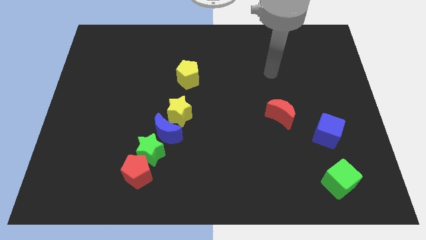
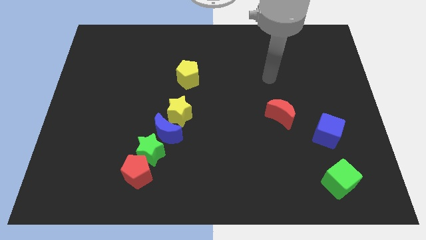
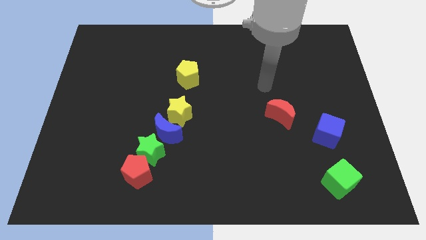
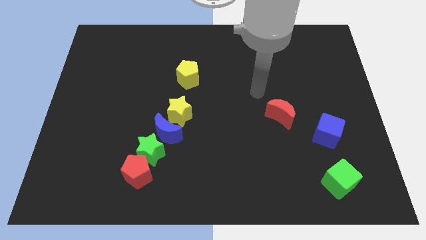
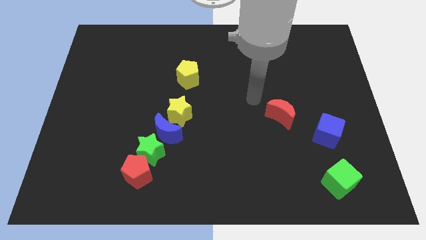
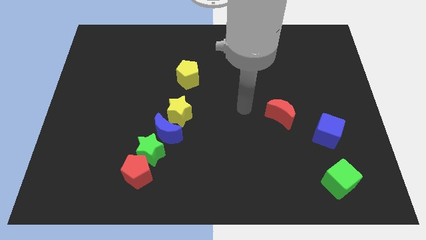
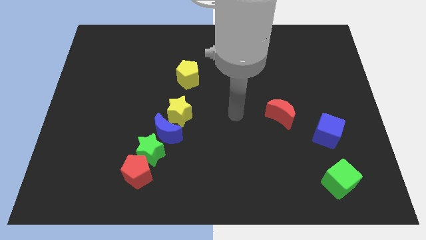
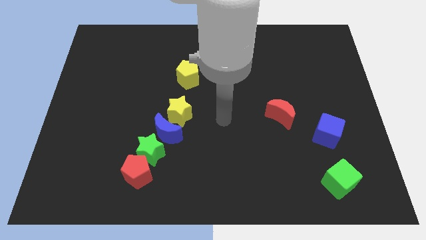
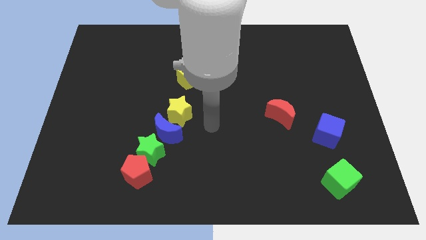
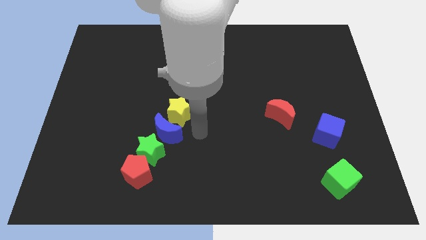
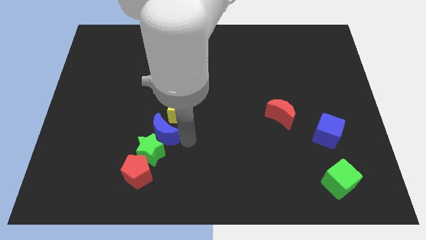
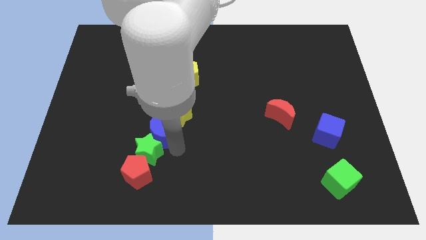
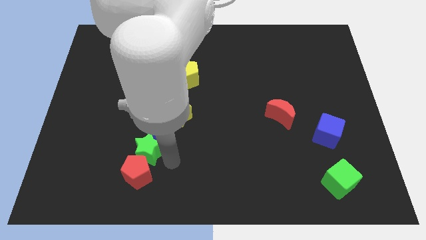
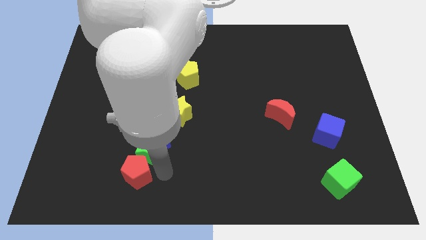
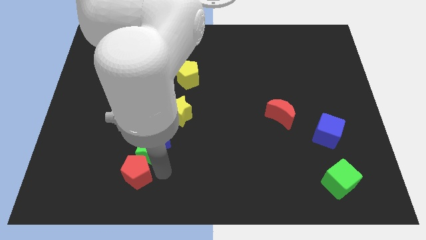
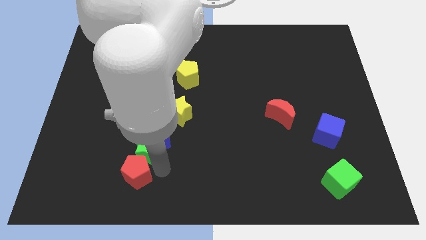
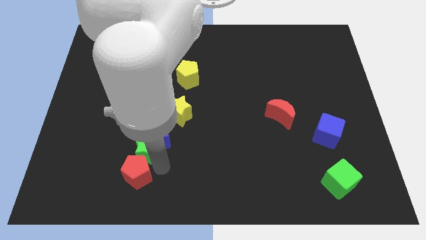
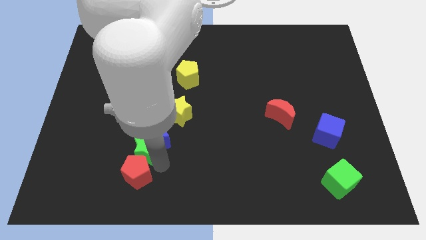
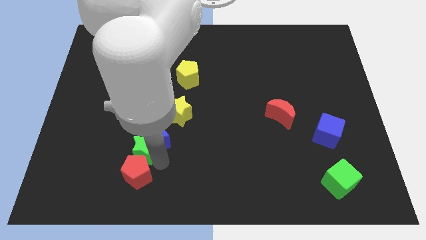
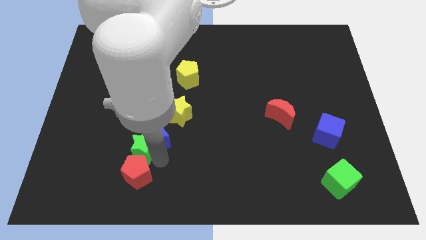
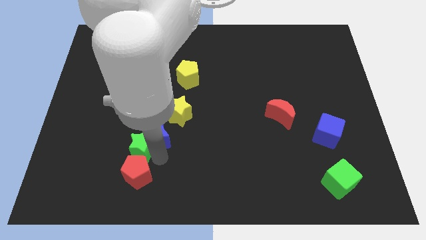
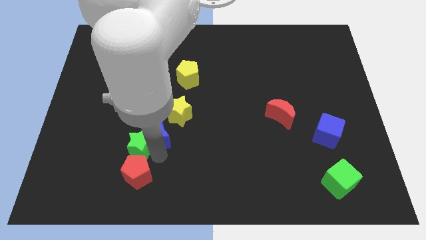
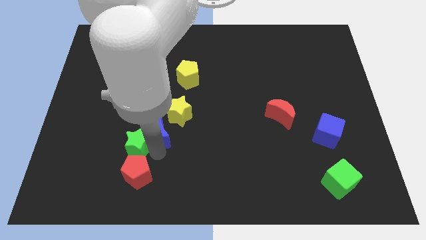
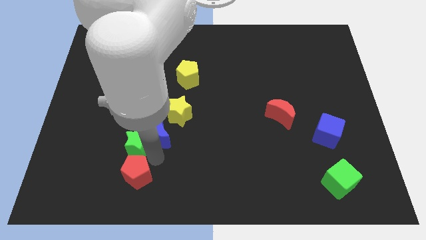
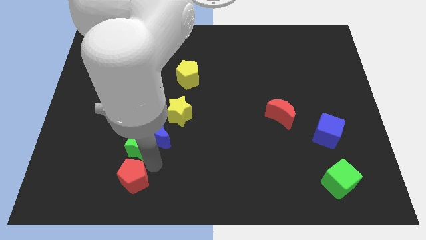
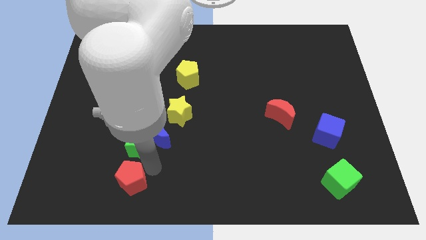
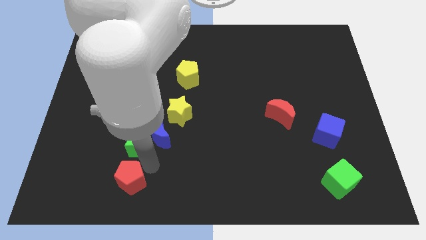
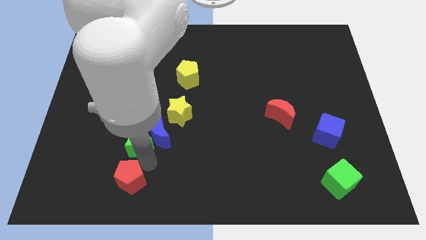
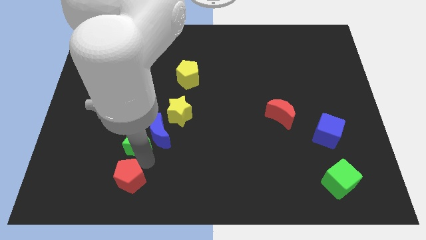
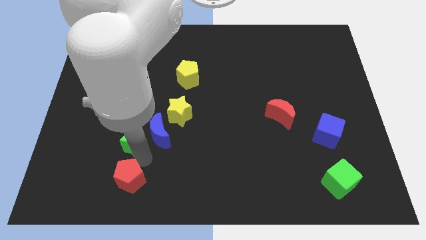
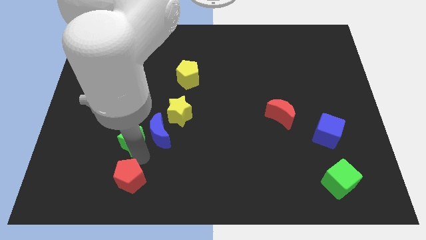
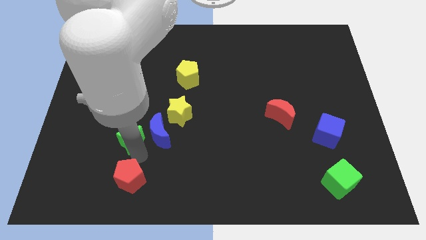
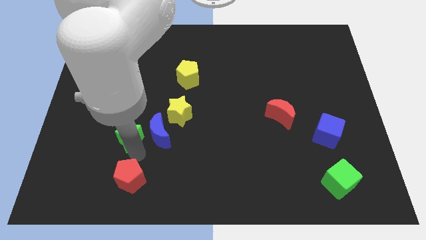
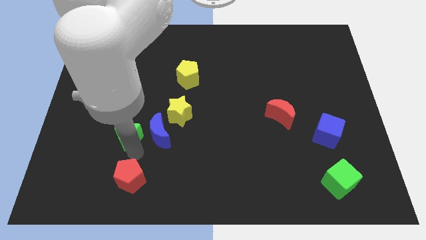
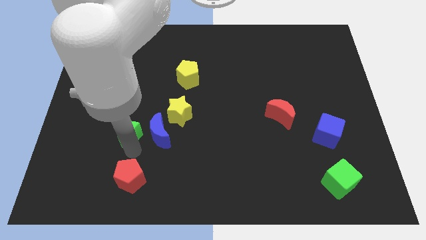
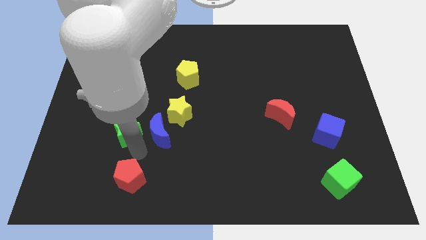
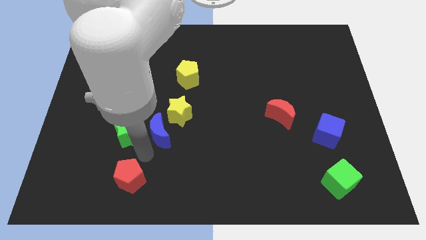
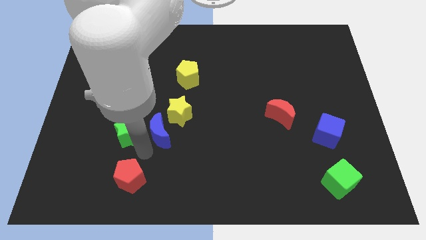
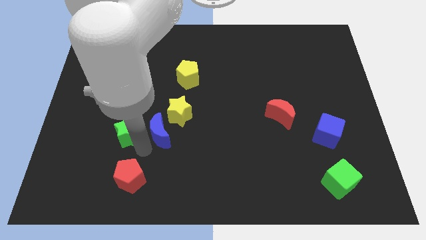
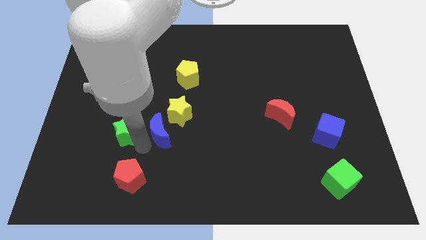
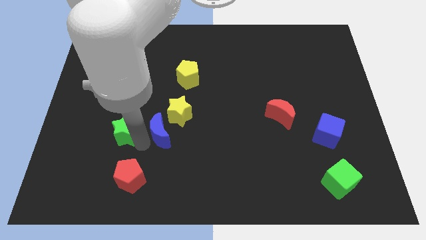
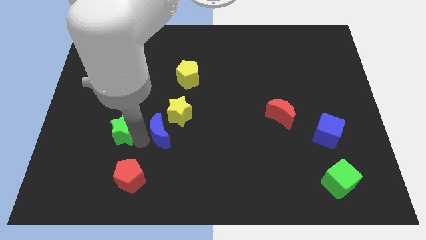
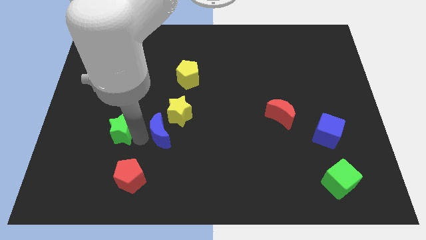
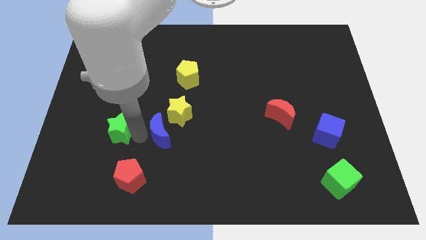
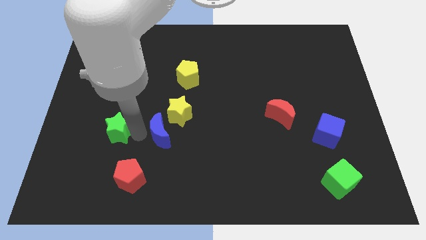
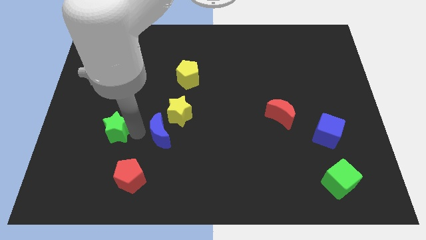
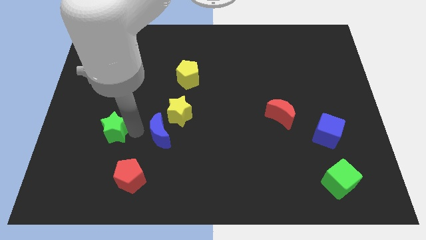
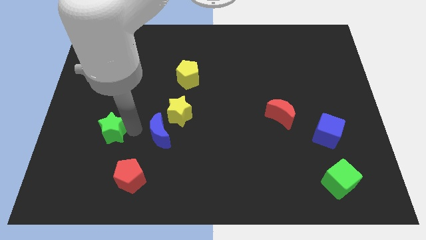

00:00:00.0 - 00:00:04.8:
pull the green star apart from the blue moon and red pentagon

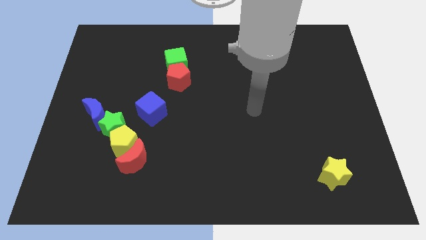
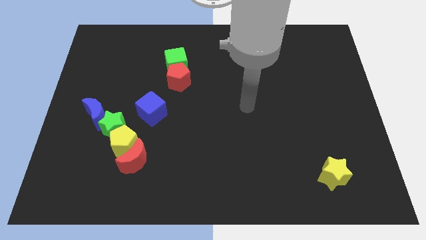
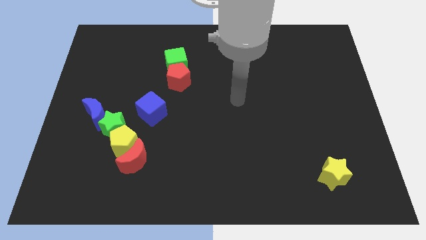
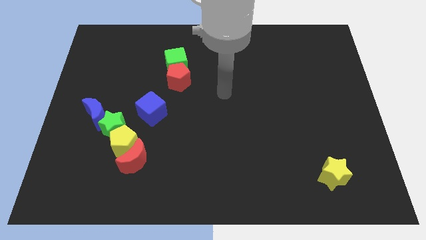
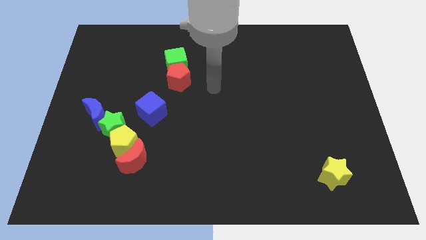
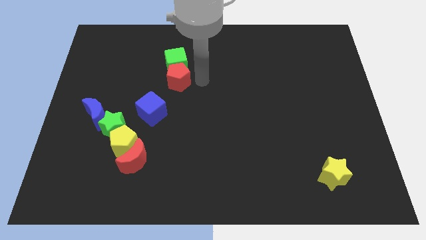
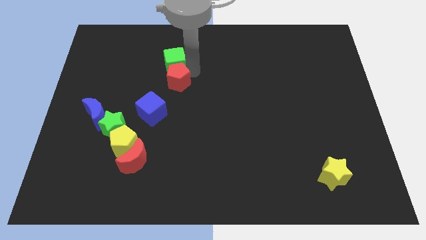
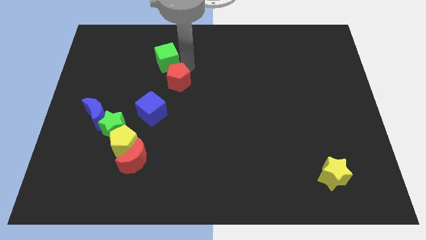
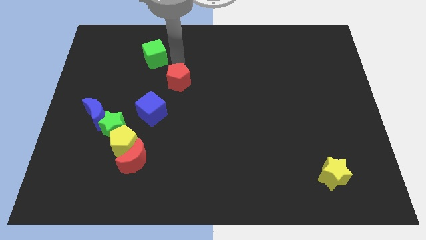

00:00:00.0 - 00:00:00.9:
separate the red pentagon from the green cube

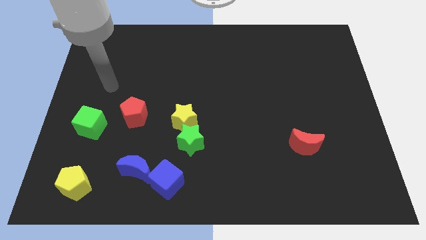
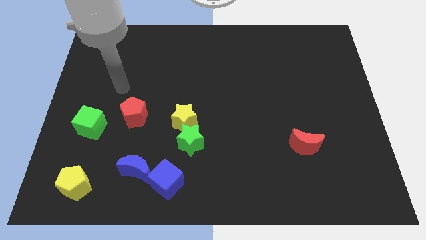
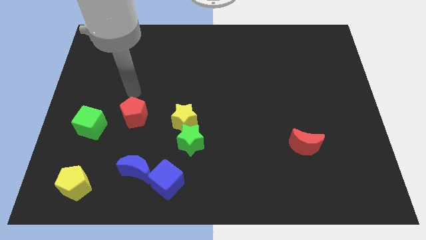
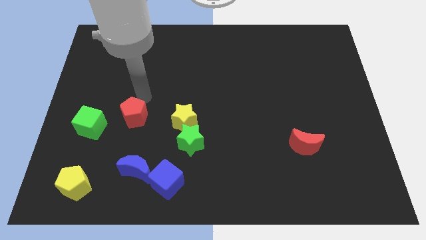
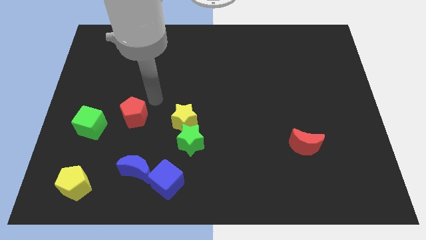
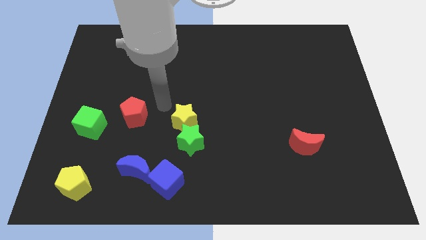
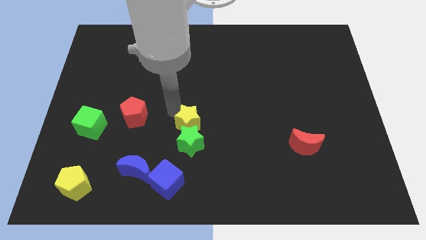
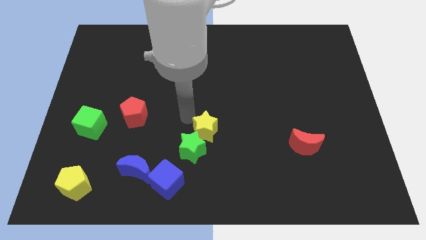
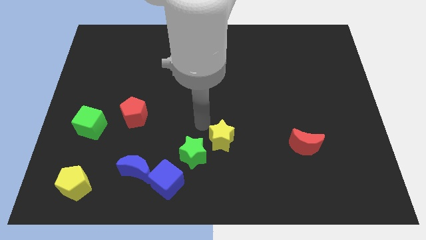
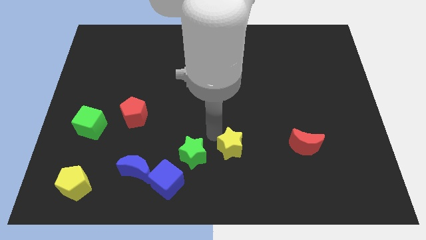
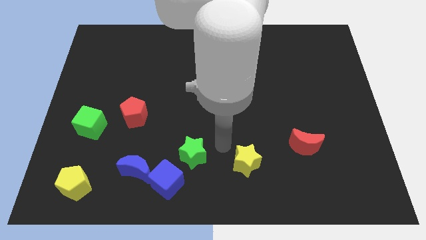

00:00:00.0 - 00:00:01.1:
pull the green star apart from the yellow star

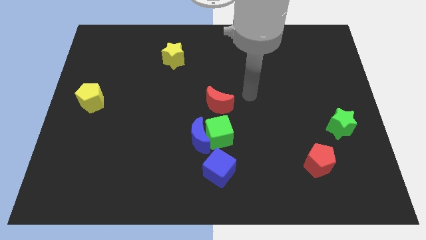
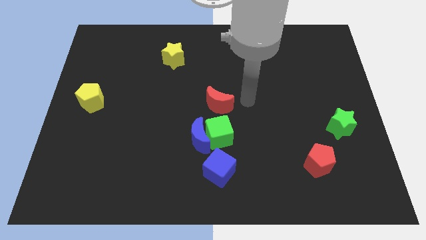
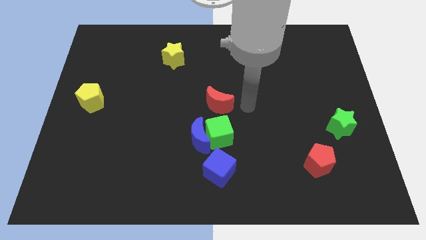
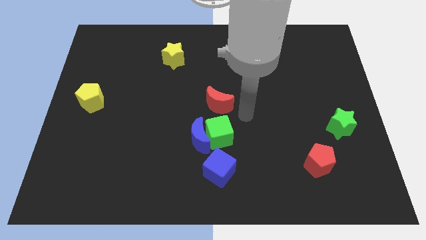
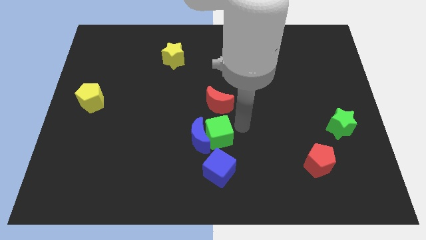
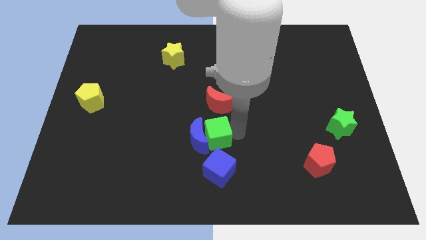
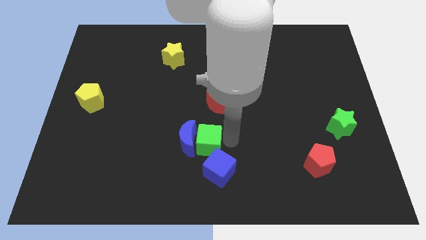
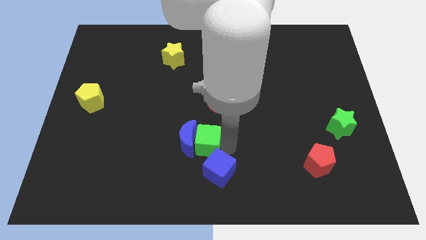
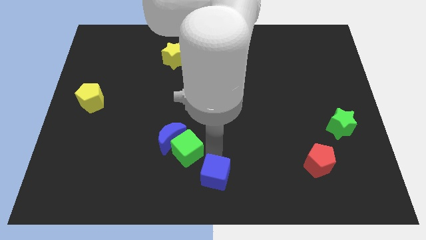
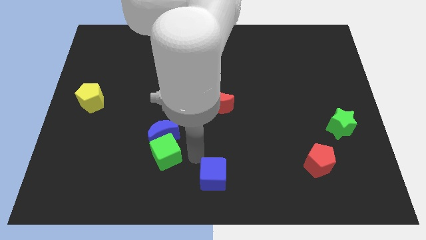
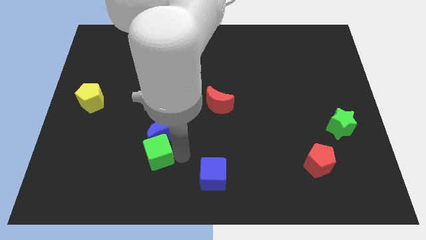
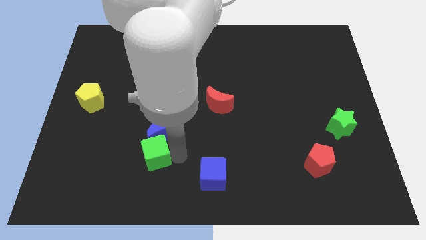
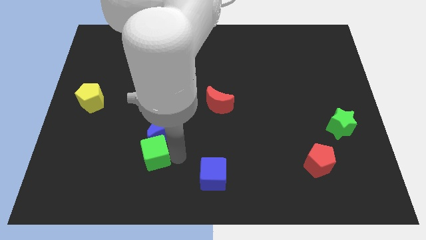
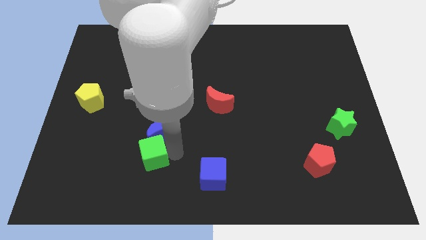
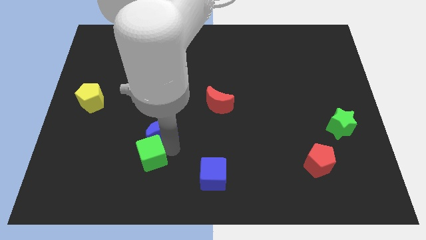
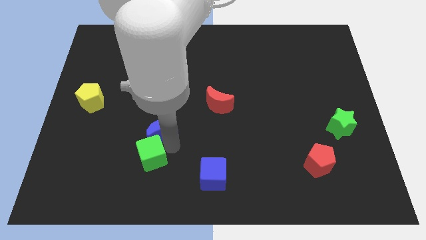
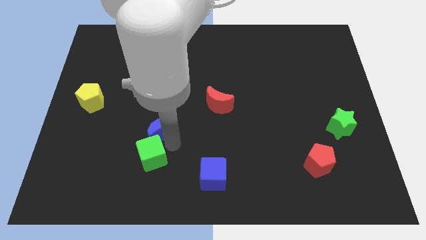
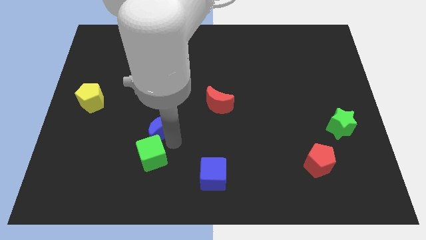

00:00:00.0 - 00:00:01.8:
pull the blue moon apart from the green cube and blue cube

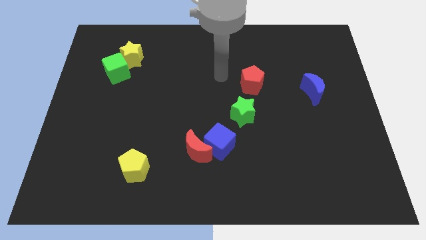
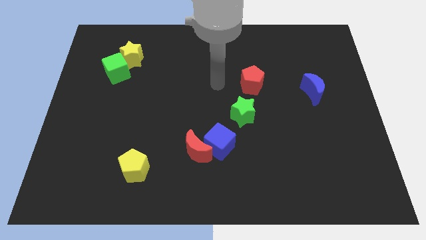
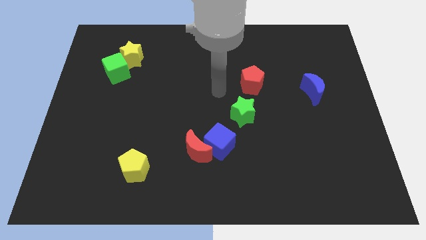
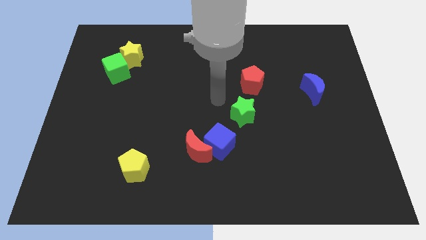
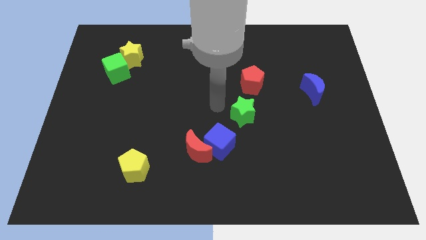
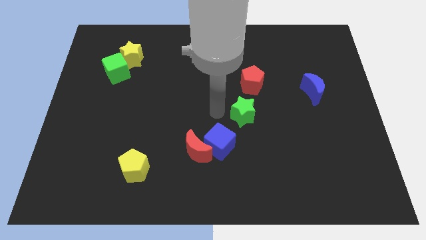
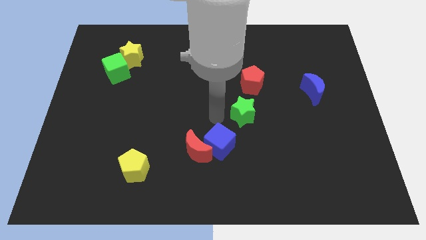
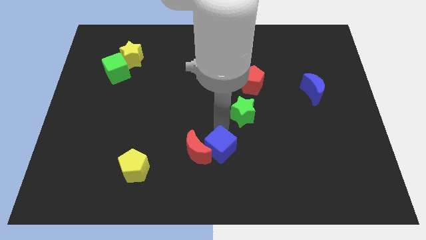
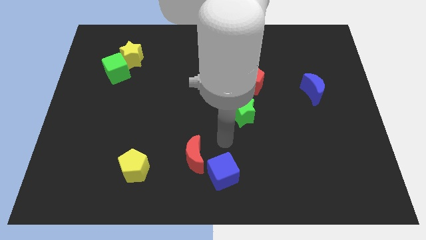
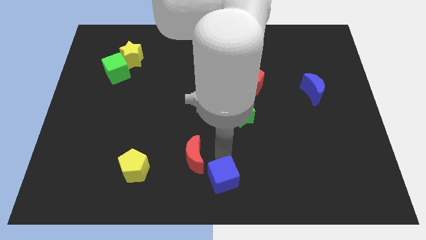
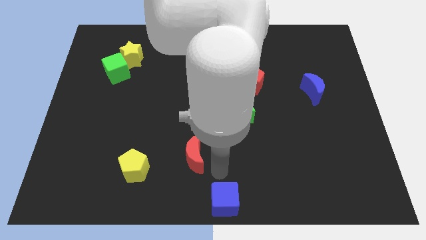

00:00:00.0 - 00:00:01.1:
separate the red moon from the blue cube
